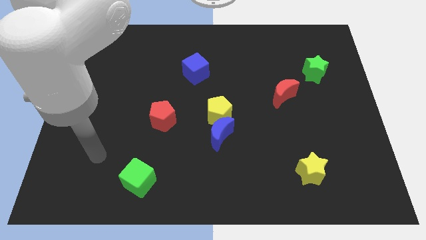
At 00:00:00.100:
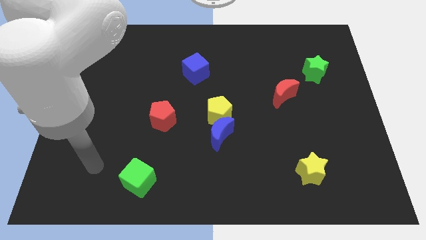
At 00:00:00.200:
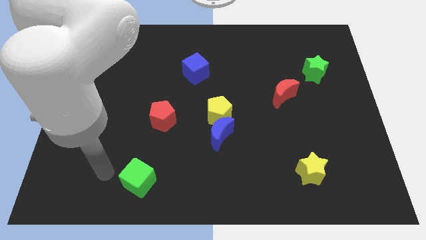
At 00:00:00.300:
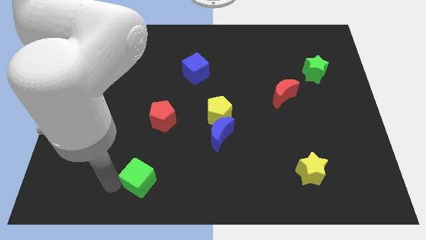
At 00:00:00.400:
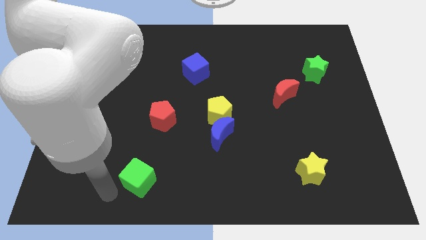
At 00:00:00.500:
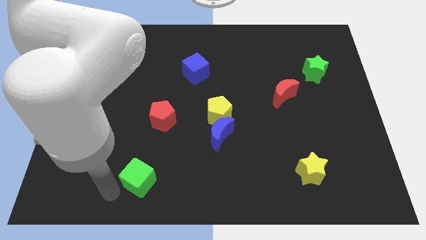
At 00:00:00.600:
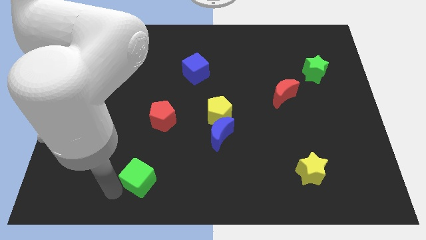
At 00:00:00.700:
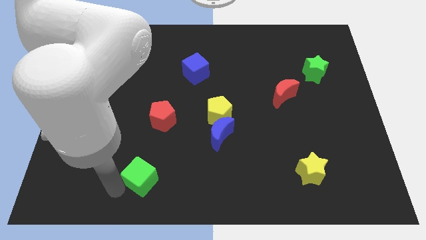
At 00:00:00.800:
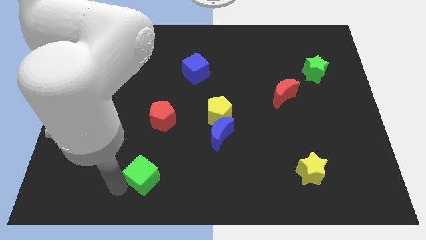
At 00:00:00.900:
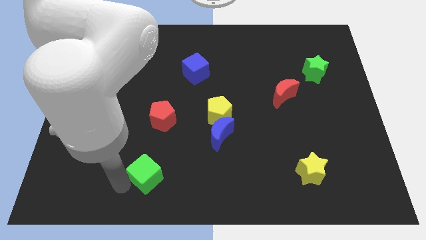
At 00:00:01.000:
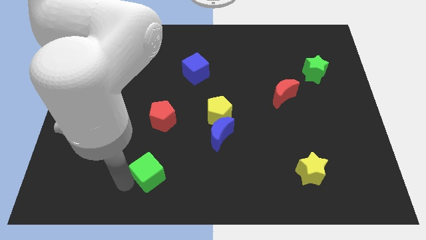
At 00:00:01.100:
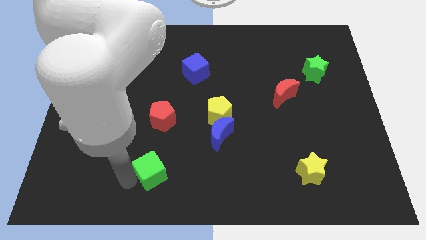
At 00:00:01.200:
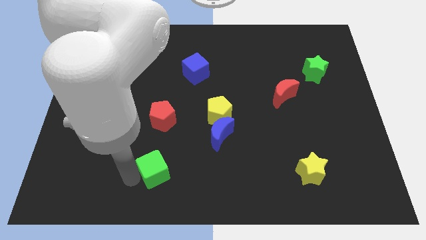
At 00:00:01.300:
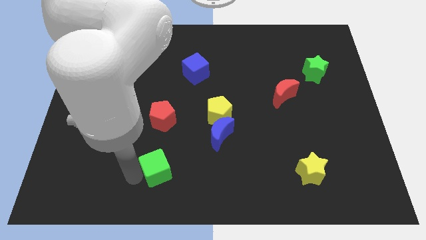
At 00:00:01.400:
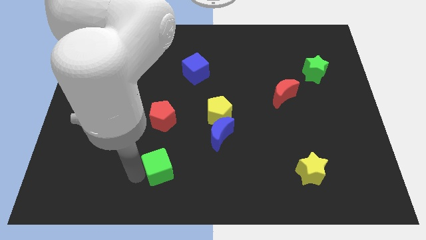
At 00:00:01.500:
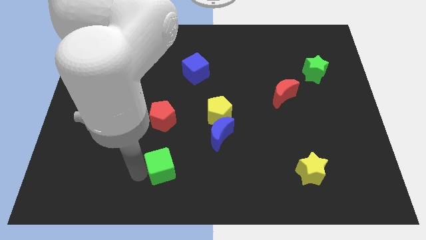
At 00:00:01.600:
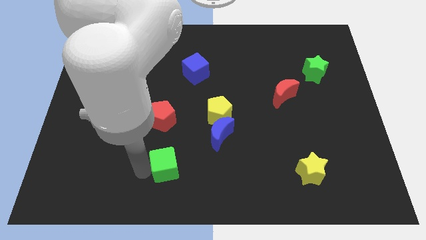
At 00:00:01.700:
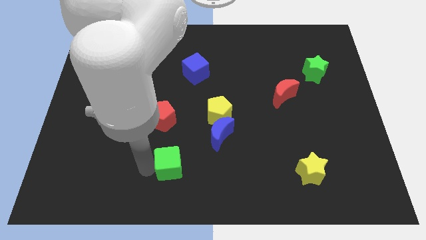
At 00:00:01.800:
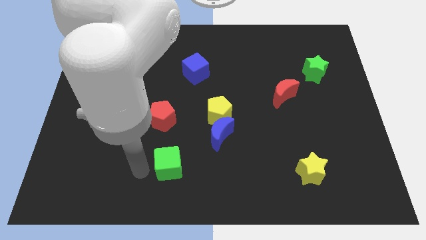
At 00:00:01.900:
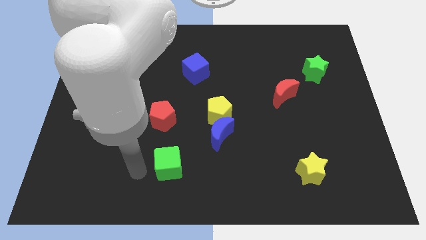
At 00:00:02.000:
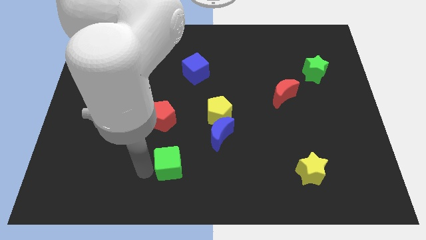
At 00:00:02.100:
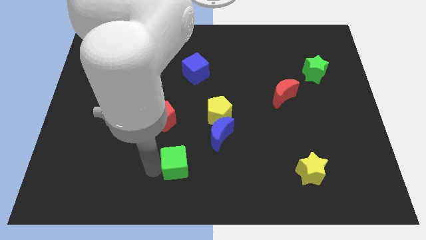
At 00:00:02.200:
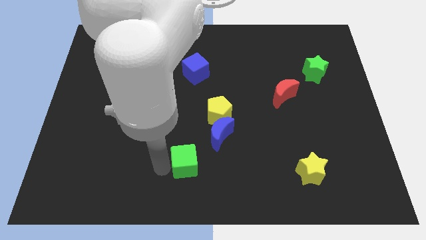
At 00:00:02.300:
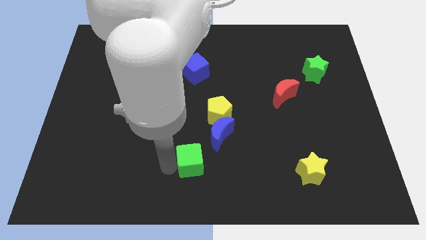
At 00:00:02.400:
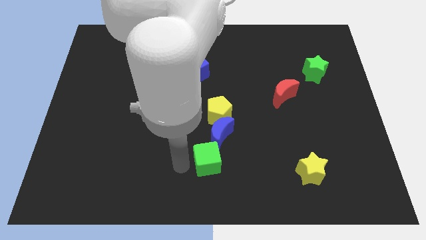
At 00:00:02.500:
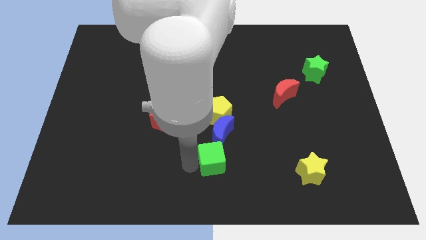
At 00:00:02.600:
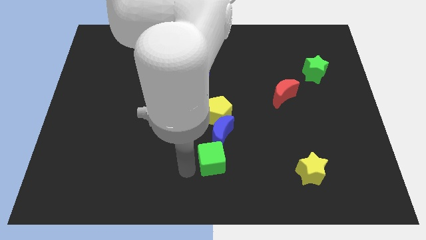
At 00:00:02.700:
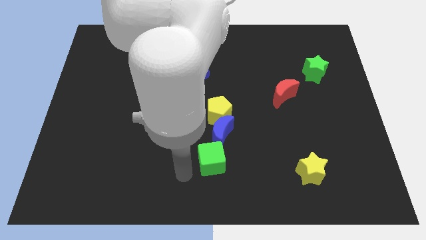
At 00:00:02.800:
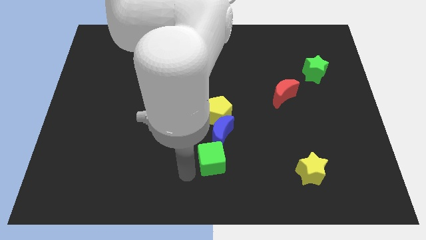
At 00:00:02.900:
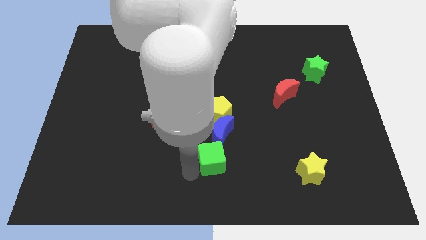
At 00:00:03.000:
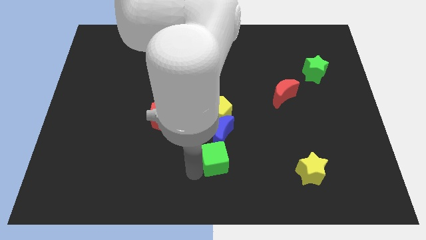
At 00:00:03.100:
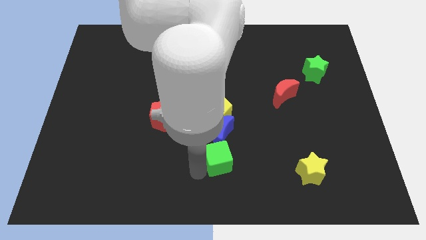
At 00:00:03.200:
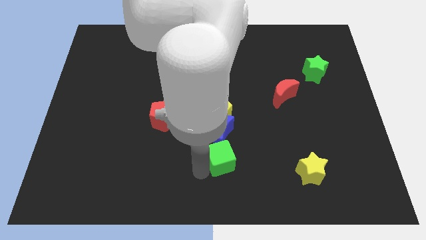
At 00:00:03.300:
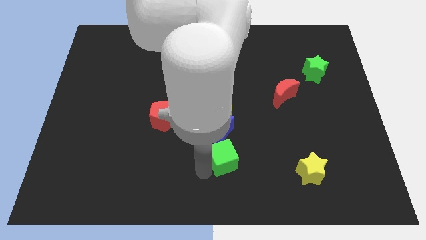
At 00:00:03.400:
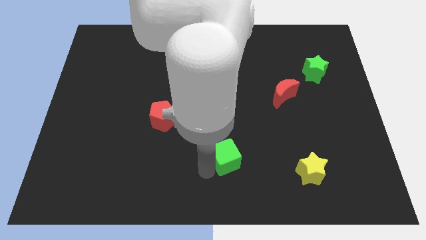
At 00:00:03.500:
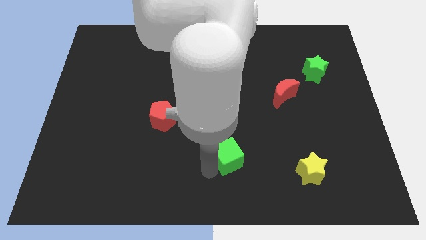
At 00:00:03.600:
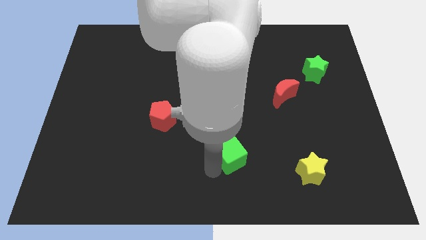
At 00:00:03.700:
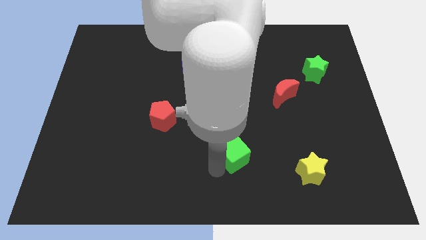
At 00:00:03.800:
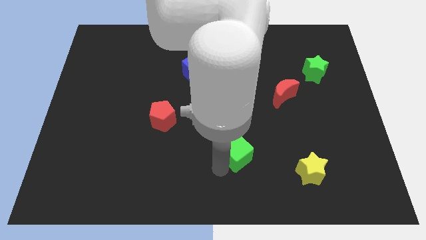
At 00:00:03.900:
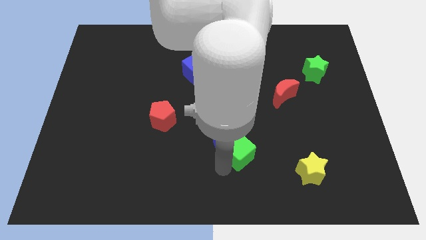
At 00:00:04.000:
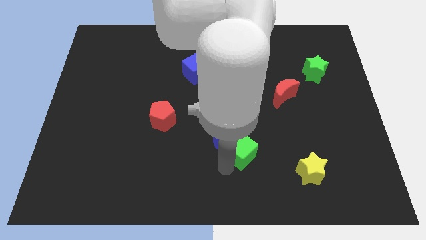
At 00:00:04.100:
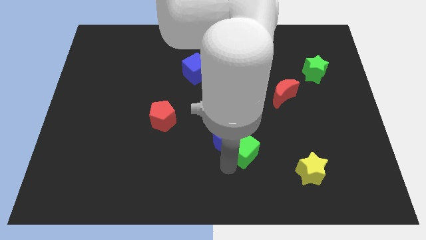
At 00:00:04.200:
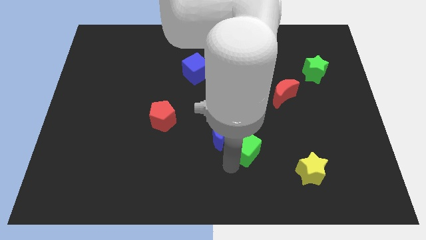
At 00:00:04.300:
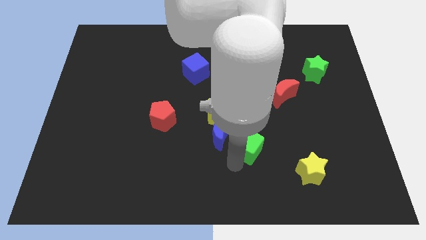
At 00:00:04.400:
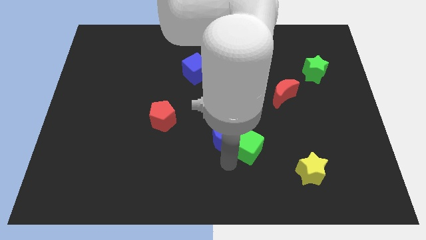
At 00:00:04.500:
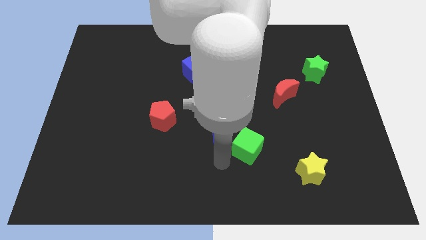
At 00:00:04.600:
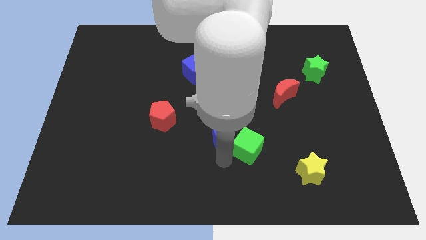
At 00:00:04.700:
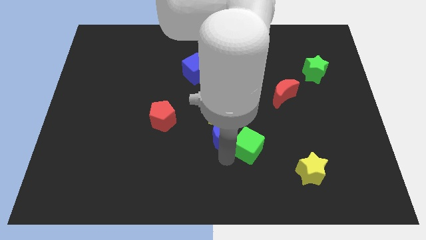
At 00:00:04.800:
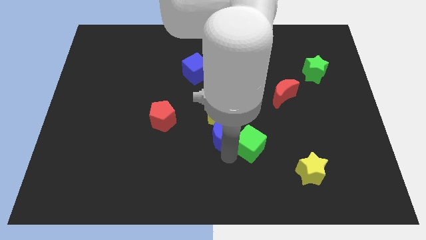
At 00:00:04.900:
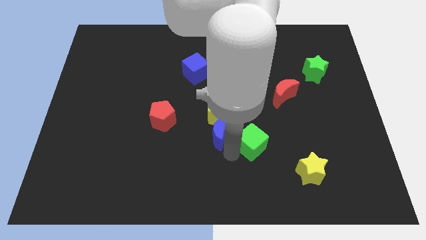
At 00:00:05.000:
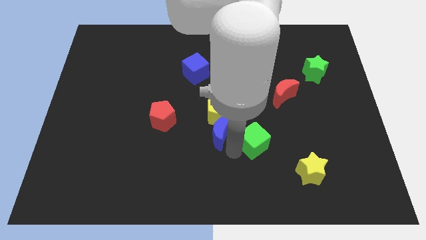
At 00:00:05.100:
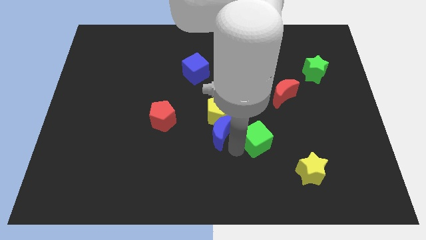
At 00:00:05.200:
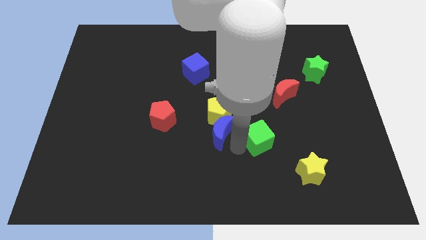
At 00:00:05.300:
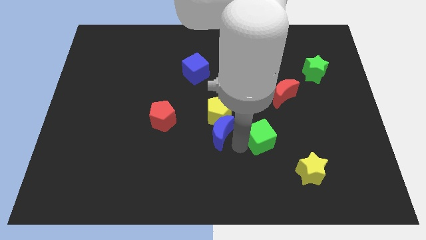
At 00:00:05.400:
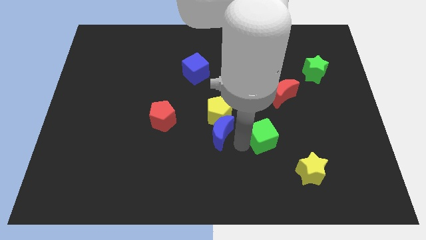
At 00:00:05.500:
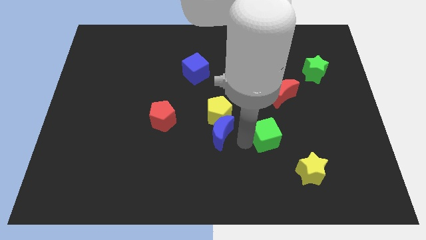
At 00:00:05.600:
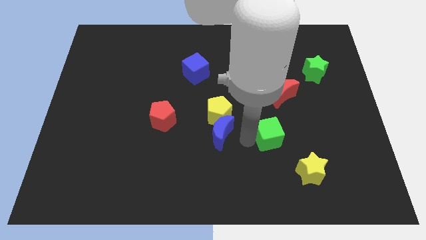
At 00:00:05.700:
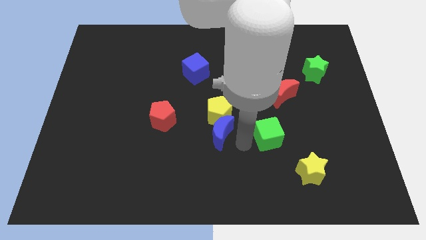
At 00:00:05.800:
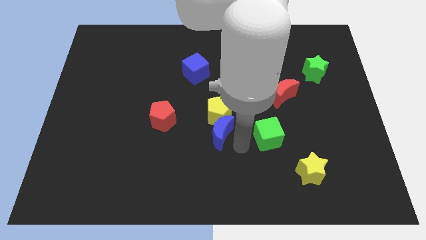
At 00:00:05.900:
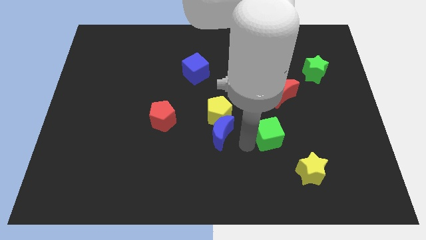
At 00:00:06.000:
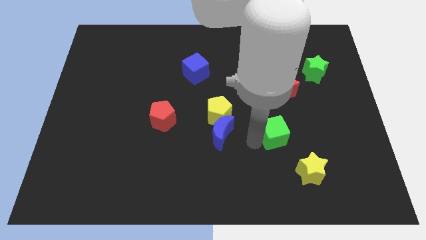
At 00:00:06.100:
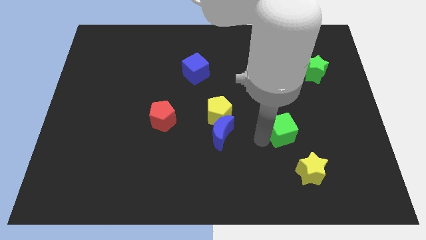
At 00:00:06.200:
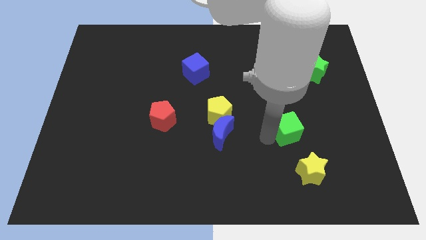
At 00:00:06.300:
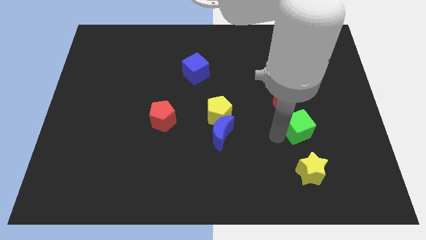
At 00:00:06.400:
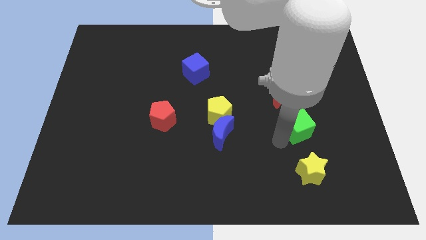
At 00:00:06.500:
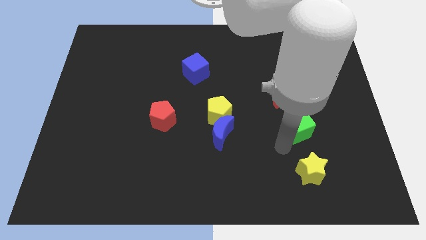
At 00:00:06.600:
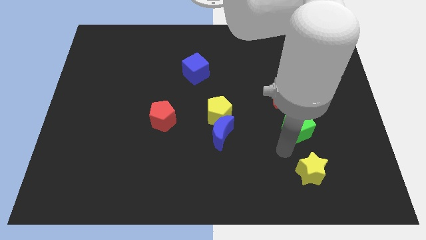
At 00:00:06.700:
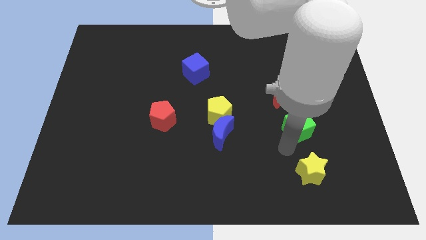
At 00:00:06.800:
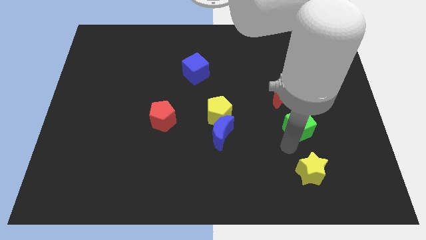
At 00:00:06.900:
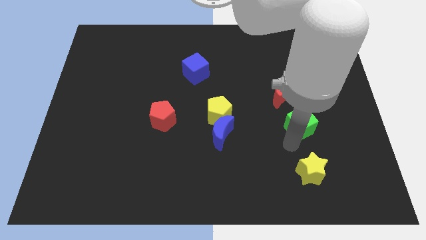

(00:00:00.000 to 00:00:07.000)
slide the green cube to the bottom right side of the red moon

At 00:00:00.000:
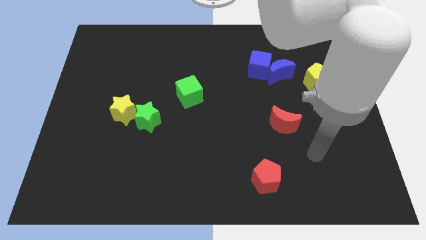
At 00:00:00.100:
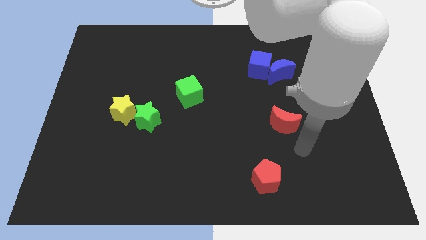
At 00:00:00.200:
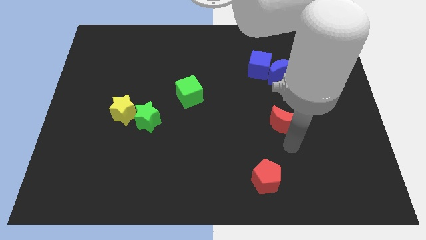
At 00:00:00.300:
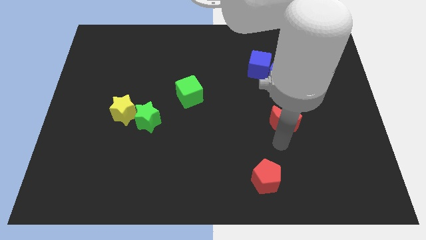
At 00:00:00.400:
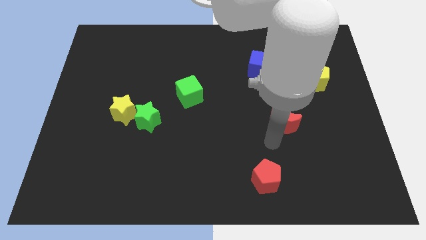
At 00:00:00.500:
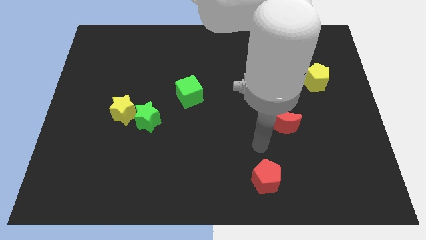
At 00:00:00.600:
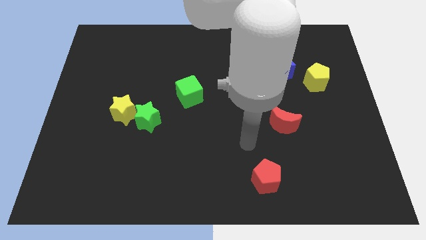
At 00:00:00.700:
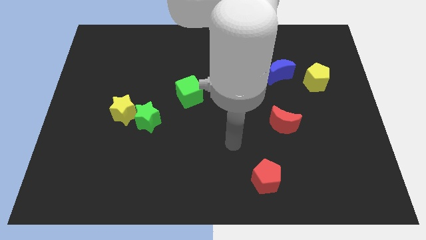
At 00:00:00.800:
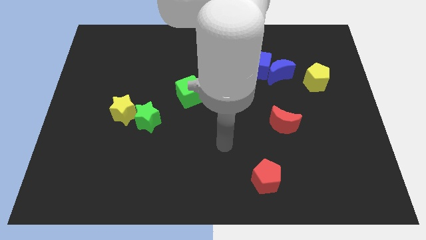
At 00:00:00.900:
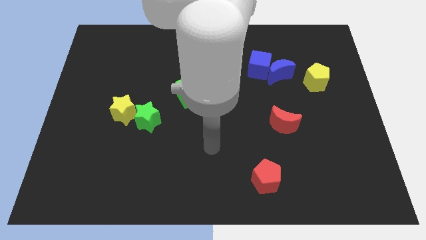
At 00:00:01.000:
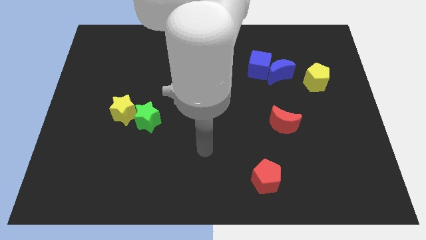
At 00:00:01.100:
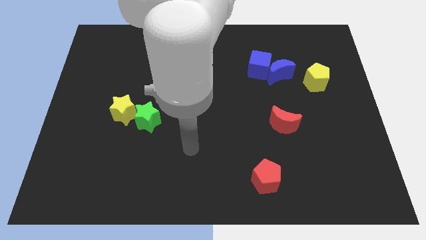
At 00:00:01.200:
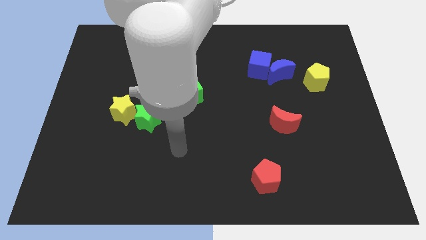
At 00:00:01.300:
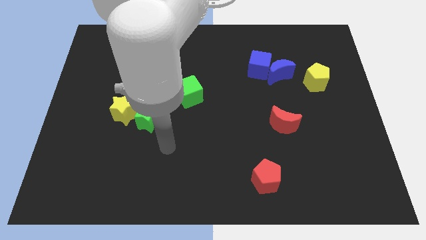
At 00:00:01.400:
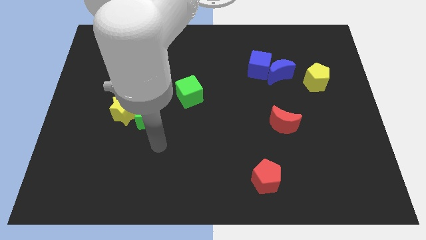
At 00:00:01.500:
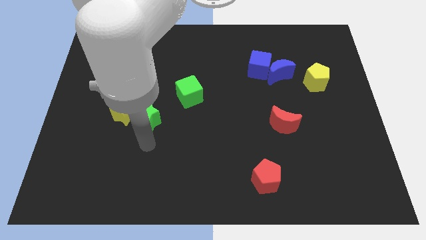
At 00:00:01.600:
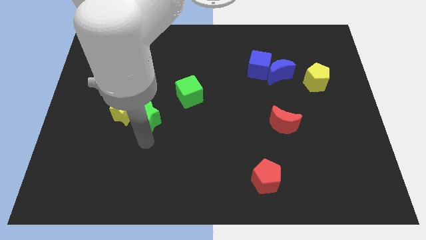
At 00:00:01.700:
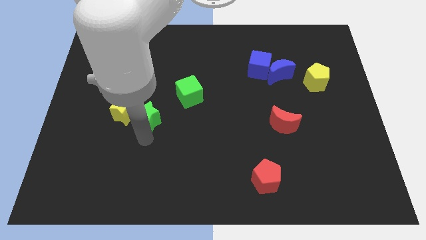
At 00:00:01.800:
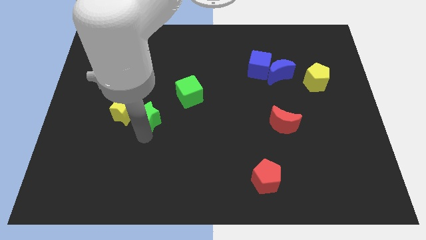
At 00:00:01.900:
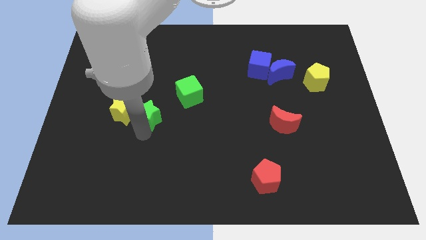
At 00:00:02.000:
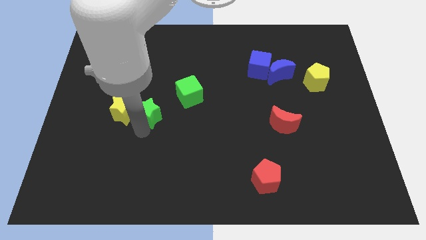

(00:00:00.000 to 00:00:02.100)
put the green star to the top right side of the yellow star
